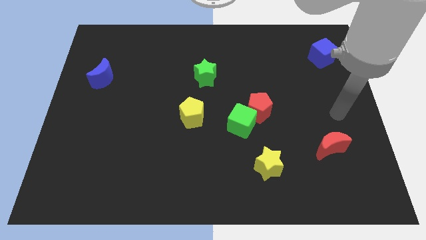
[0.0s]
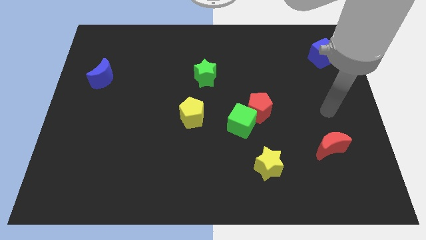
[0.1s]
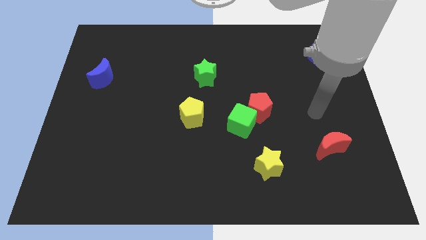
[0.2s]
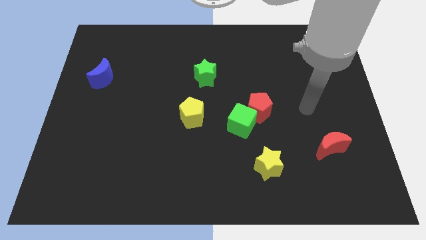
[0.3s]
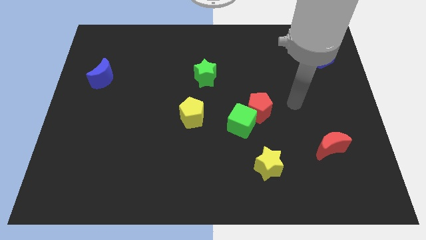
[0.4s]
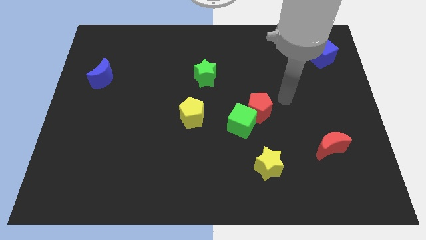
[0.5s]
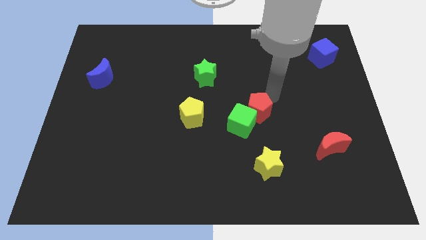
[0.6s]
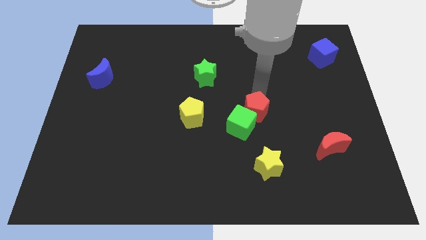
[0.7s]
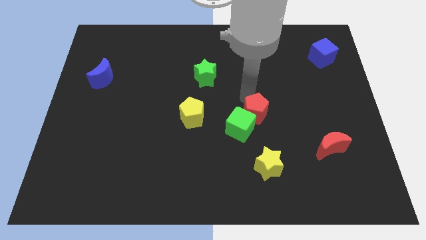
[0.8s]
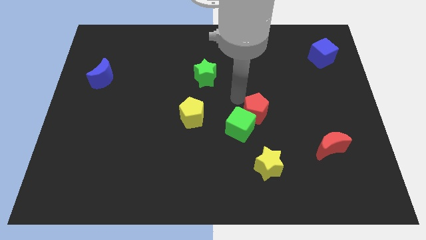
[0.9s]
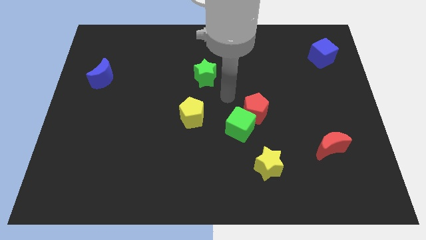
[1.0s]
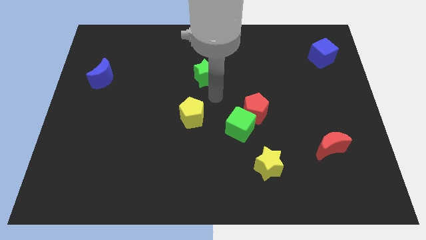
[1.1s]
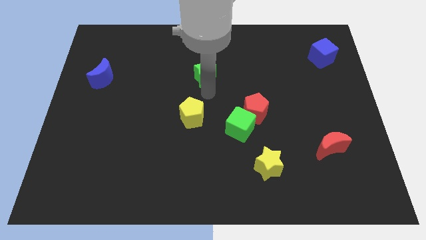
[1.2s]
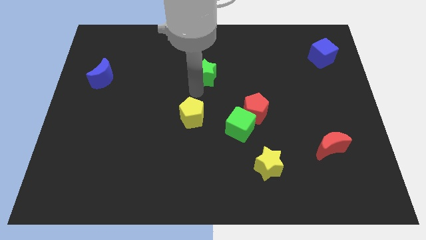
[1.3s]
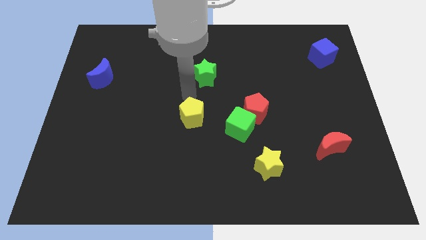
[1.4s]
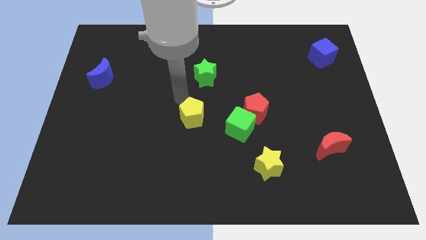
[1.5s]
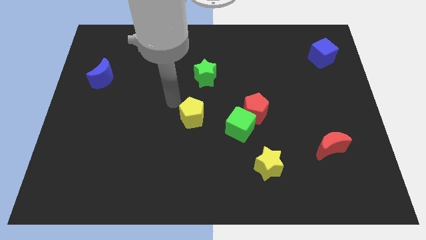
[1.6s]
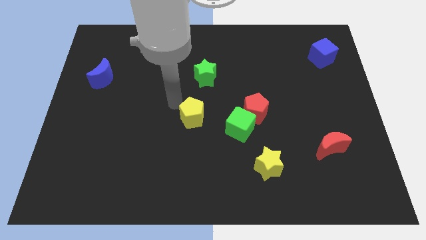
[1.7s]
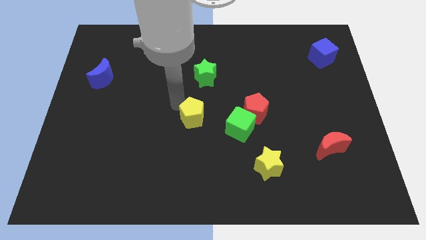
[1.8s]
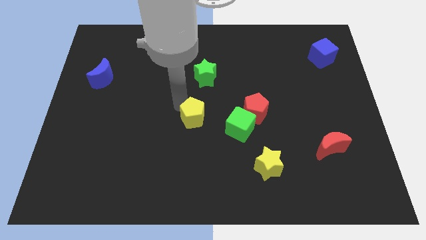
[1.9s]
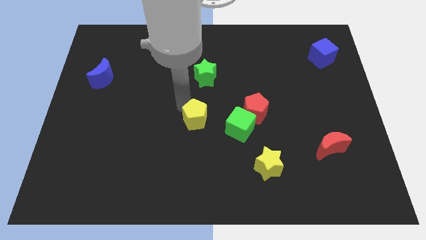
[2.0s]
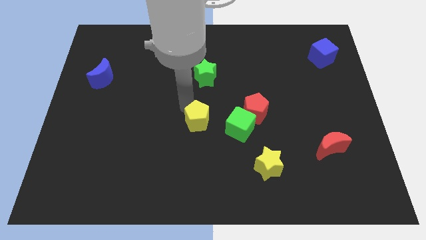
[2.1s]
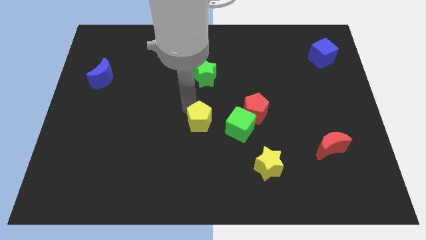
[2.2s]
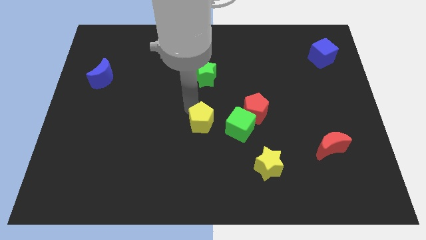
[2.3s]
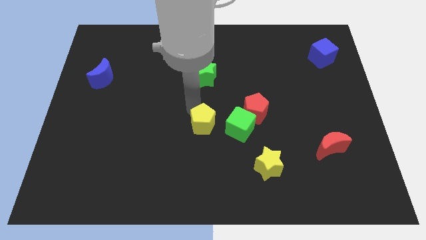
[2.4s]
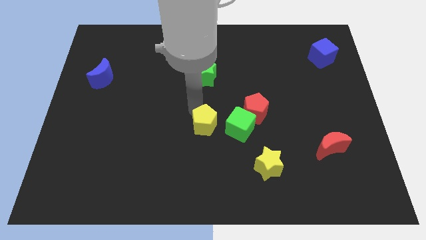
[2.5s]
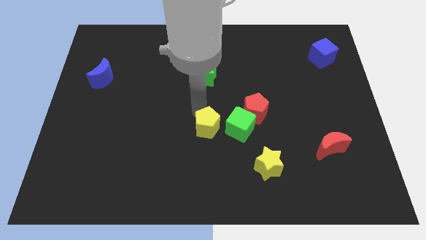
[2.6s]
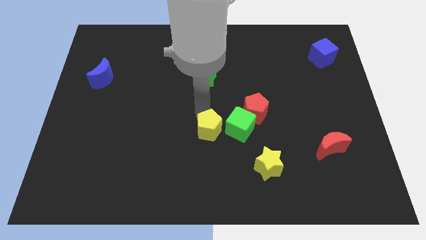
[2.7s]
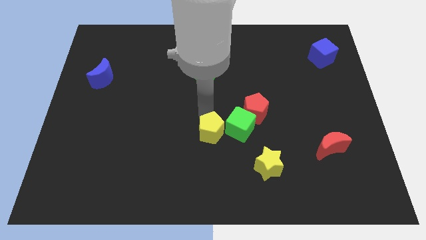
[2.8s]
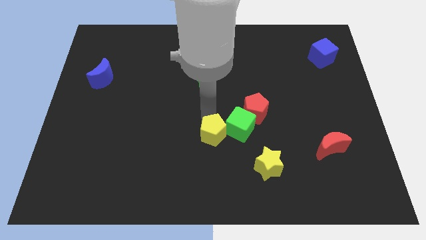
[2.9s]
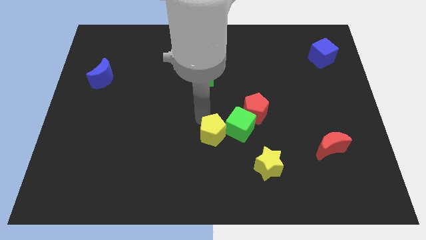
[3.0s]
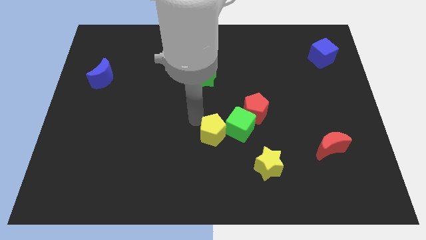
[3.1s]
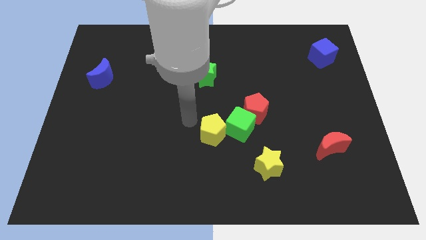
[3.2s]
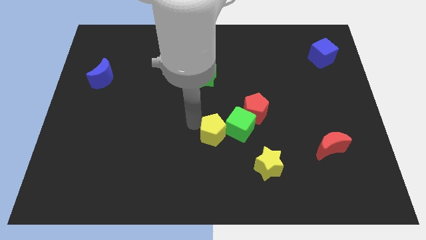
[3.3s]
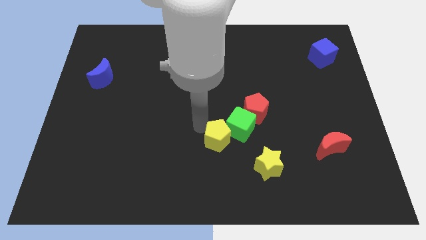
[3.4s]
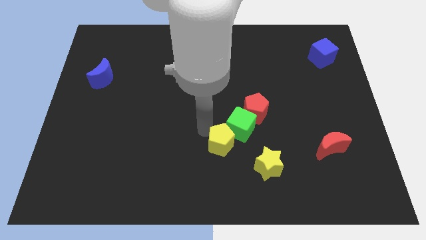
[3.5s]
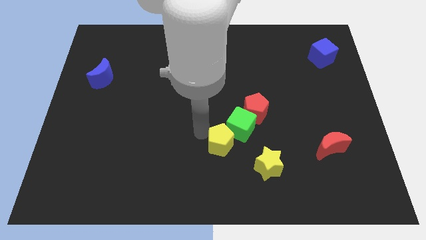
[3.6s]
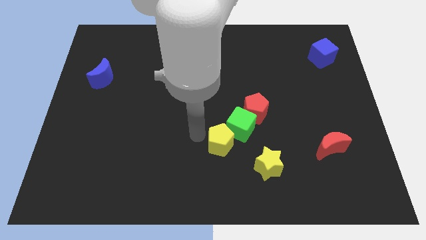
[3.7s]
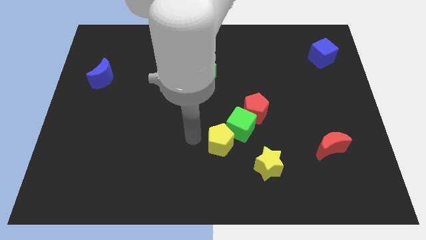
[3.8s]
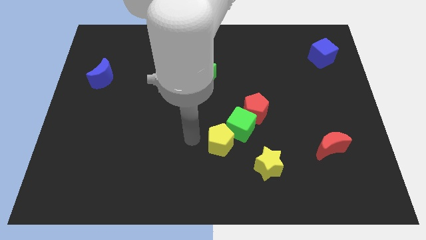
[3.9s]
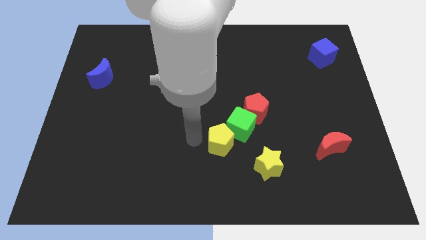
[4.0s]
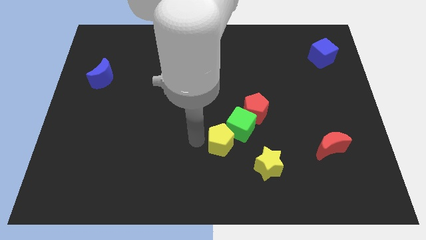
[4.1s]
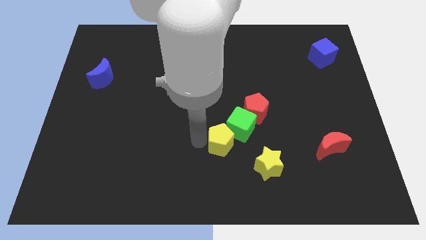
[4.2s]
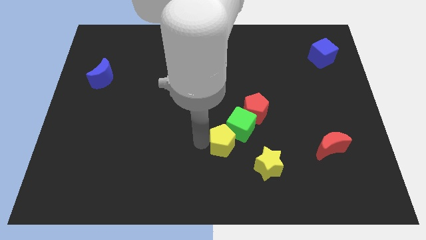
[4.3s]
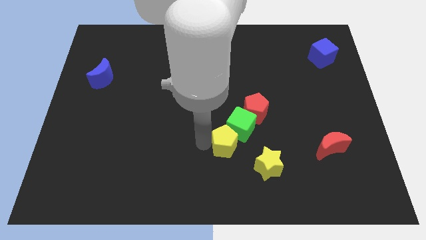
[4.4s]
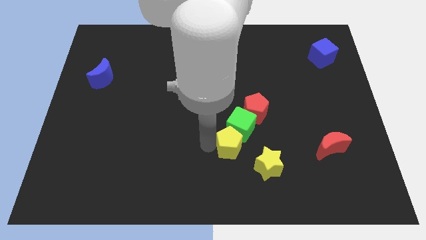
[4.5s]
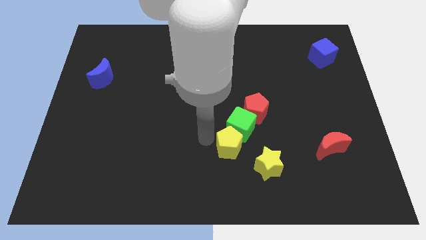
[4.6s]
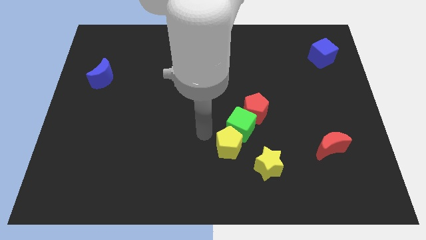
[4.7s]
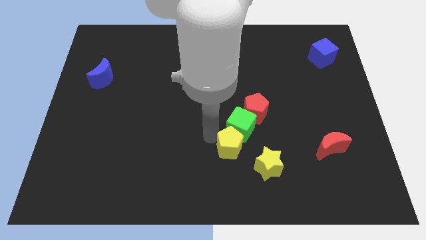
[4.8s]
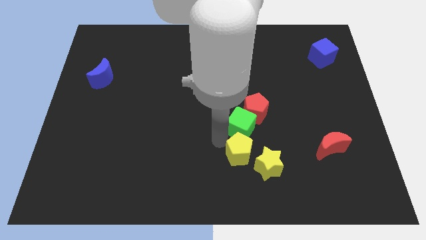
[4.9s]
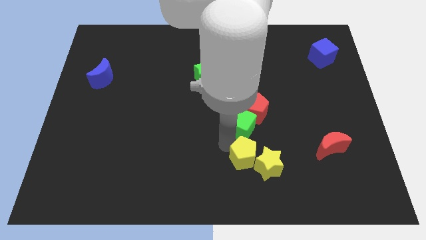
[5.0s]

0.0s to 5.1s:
move the yellow pentagon next to the yellow star

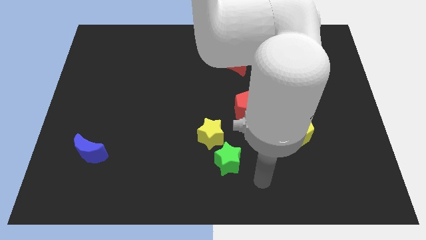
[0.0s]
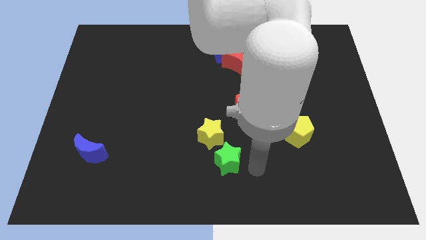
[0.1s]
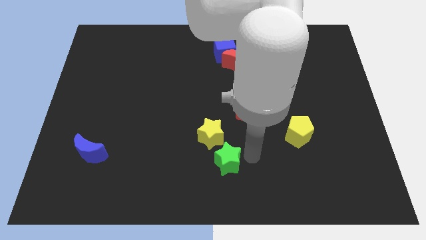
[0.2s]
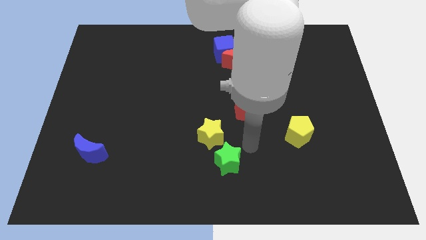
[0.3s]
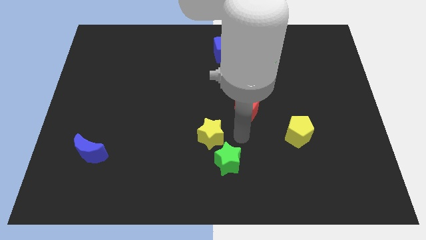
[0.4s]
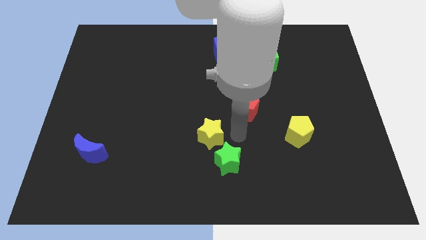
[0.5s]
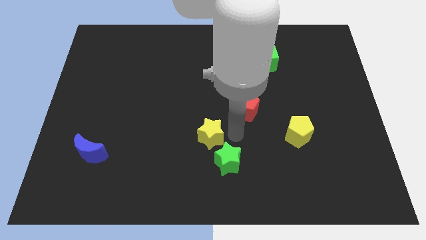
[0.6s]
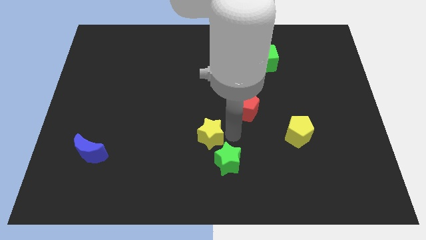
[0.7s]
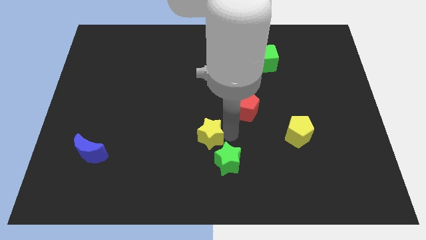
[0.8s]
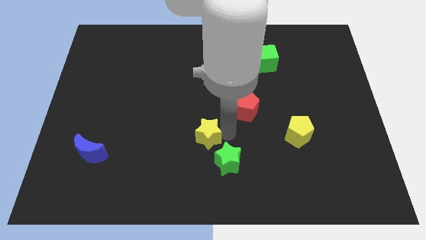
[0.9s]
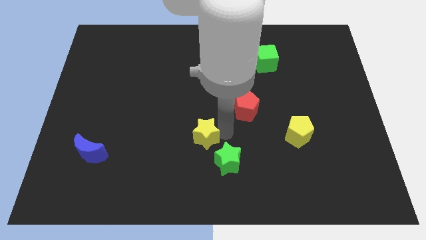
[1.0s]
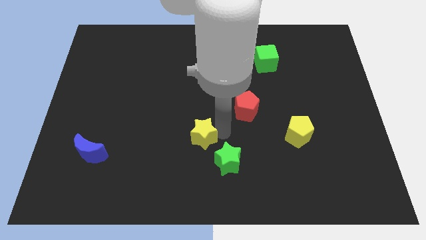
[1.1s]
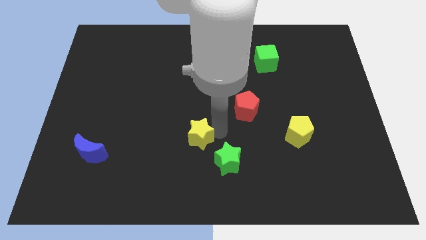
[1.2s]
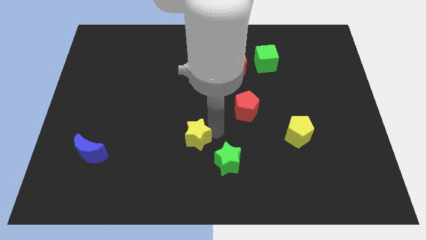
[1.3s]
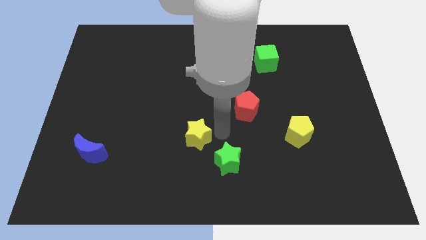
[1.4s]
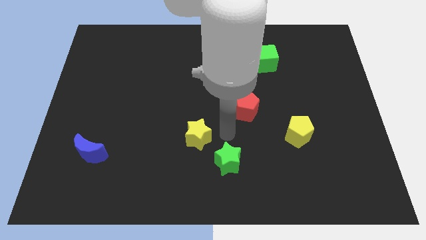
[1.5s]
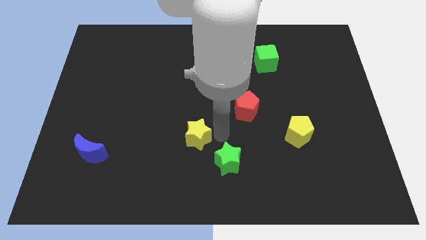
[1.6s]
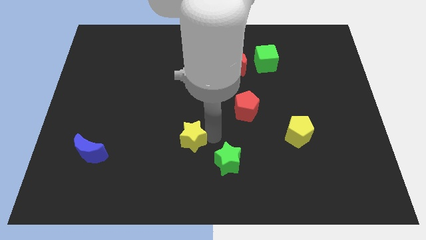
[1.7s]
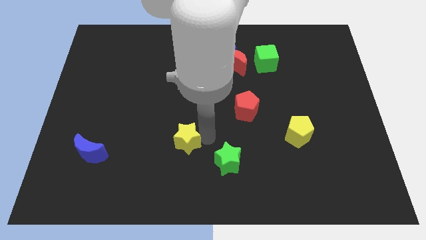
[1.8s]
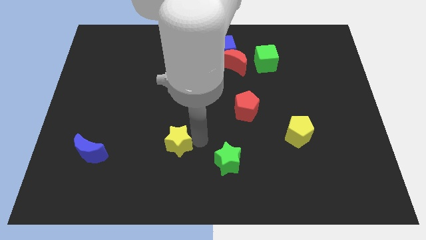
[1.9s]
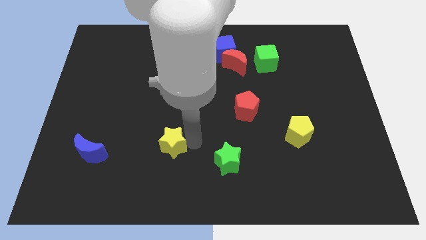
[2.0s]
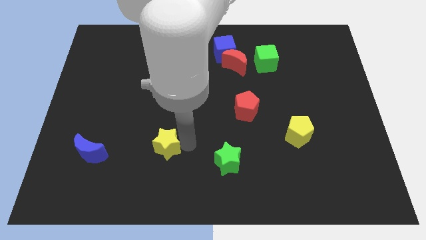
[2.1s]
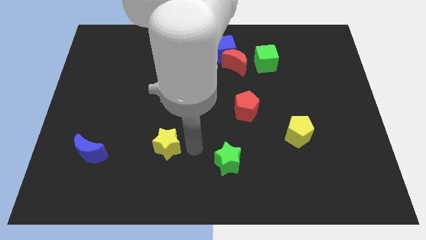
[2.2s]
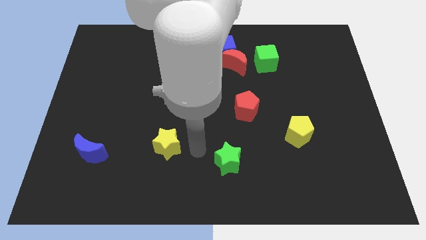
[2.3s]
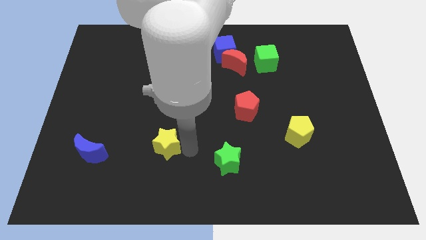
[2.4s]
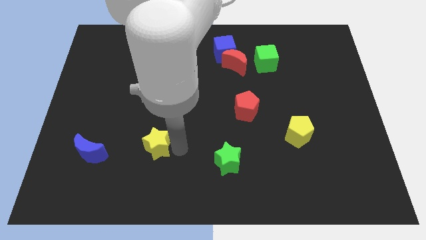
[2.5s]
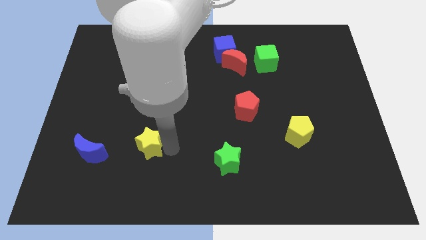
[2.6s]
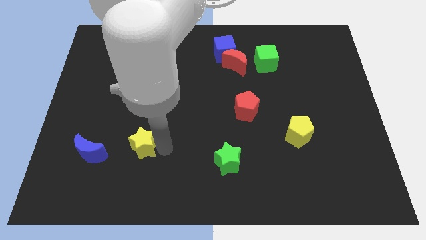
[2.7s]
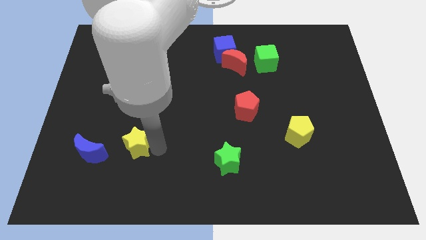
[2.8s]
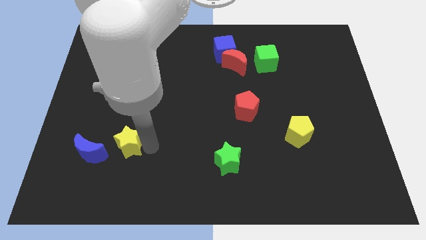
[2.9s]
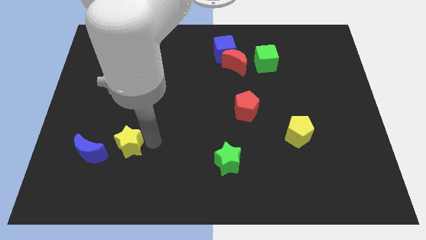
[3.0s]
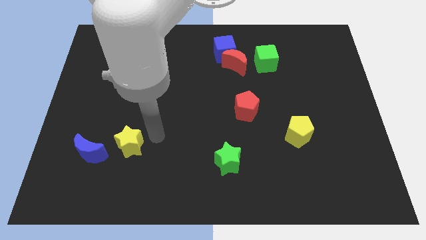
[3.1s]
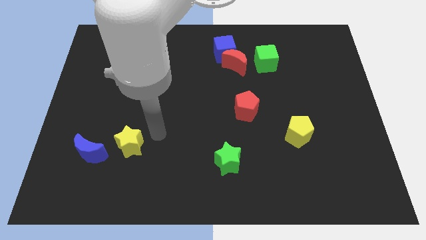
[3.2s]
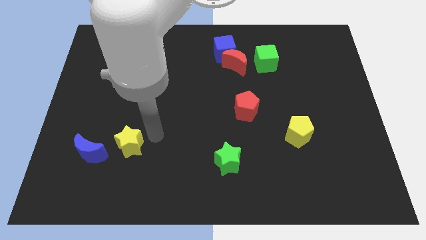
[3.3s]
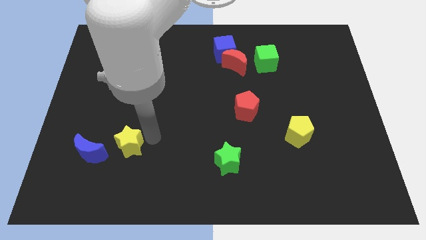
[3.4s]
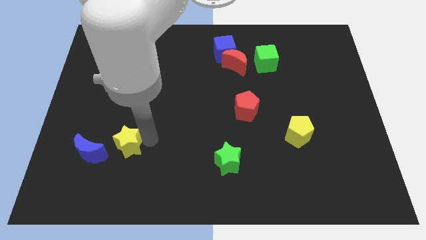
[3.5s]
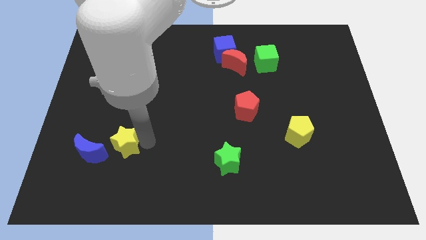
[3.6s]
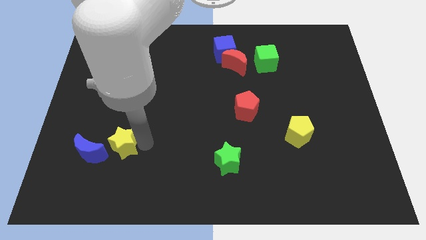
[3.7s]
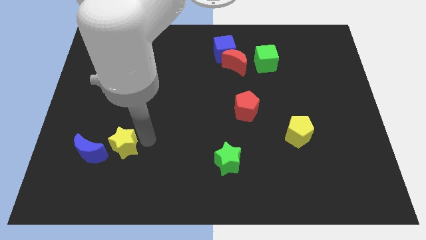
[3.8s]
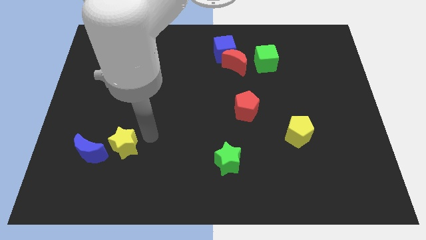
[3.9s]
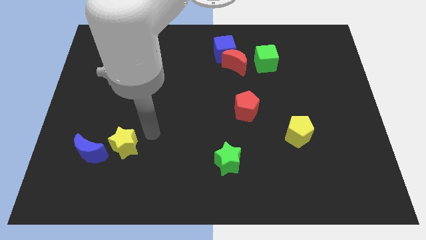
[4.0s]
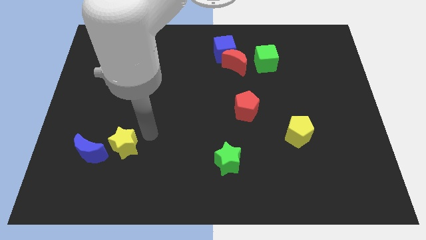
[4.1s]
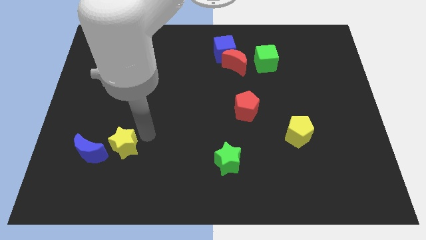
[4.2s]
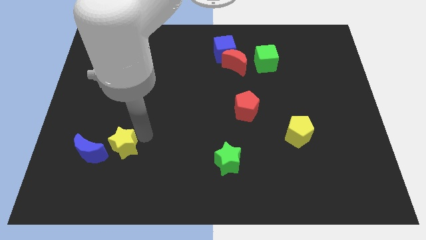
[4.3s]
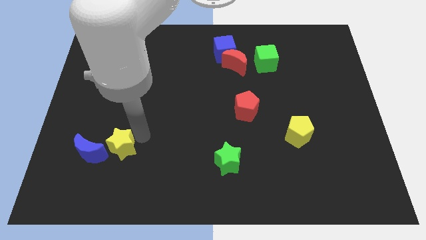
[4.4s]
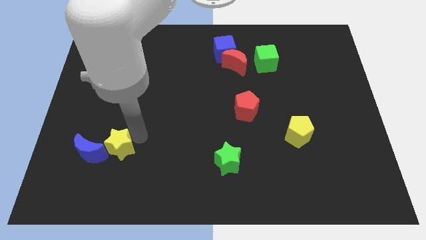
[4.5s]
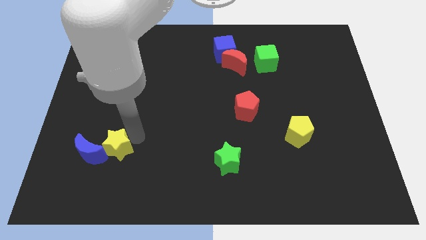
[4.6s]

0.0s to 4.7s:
put the yellow star to the blue moon
